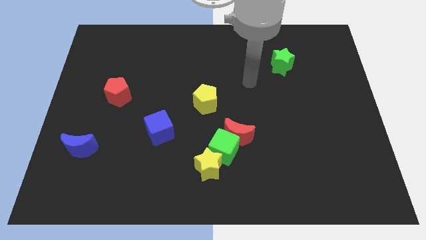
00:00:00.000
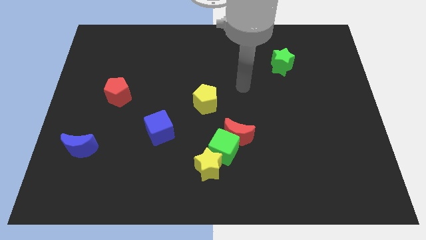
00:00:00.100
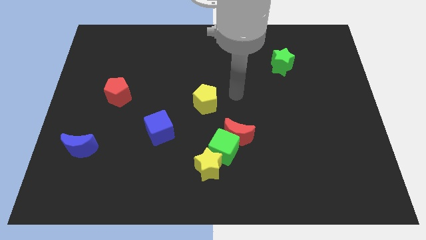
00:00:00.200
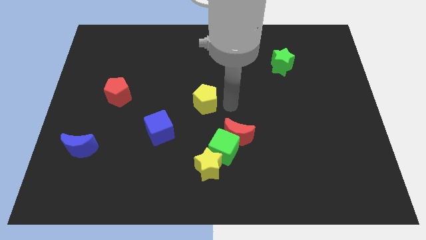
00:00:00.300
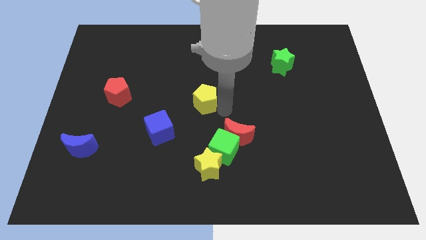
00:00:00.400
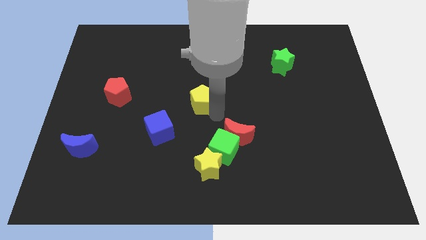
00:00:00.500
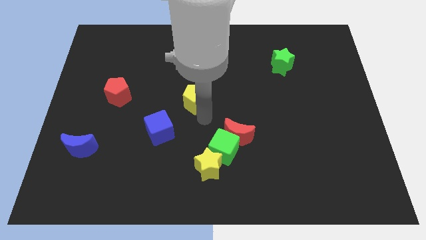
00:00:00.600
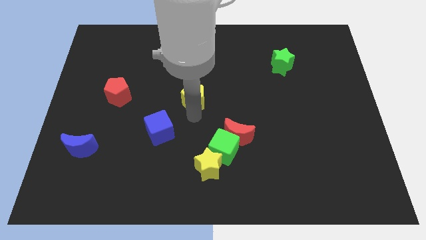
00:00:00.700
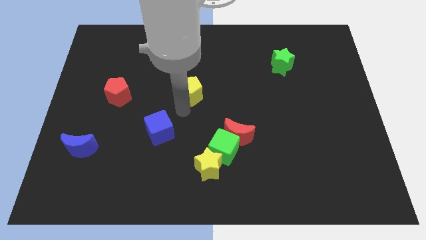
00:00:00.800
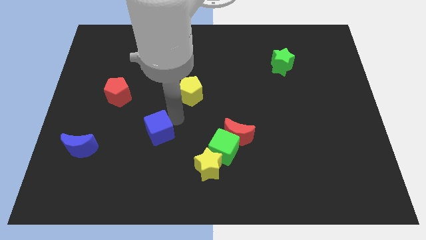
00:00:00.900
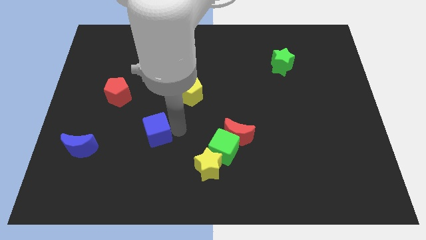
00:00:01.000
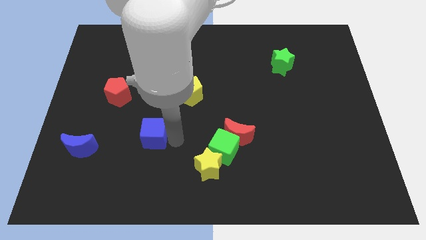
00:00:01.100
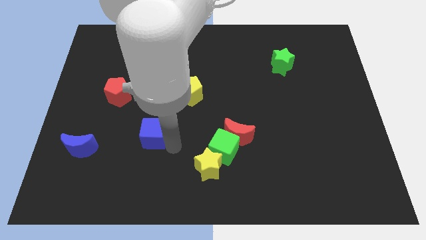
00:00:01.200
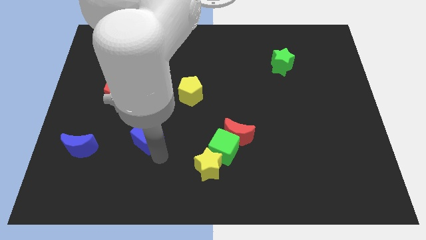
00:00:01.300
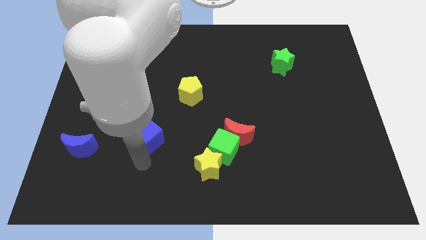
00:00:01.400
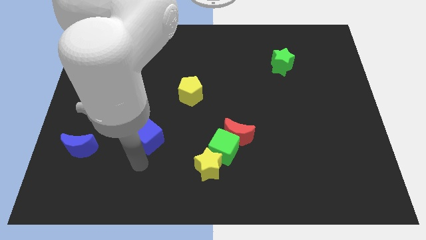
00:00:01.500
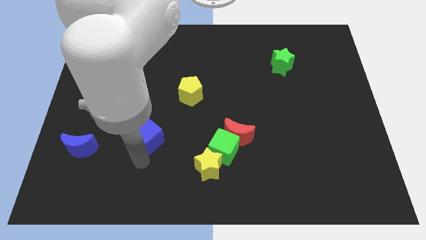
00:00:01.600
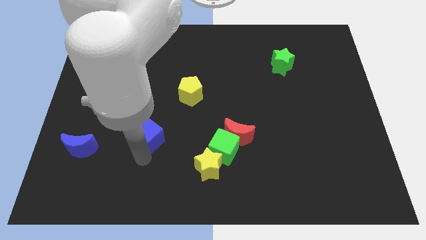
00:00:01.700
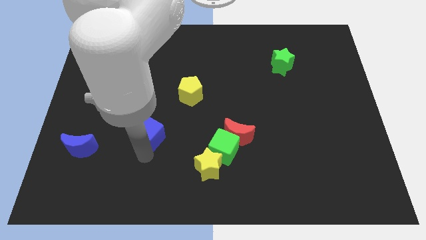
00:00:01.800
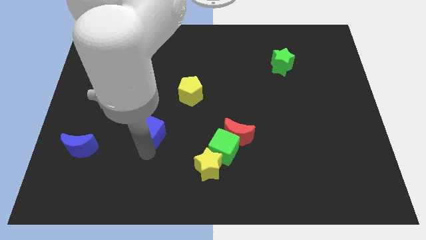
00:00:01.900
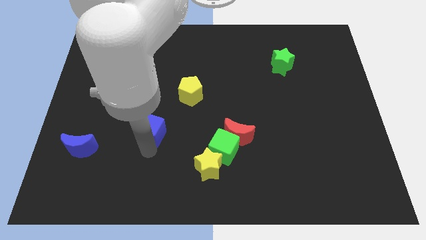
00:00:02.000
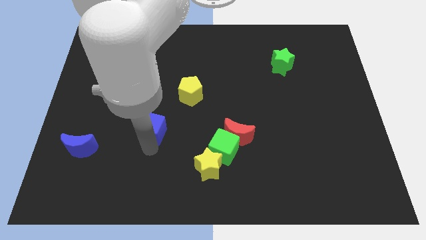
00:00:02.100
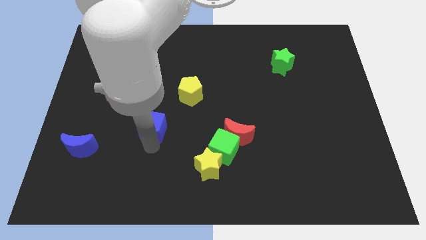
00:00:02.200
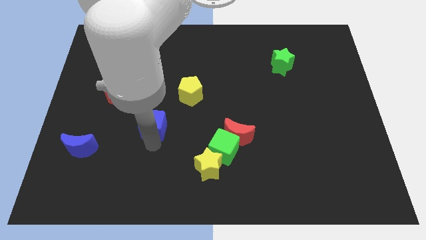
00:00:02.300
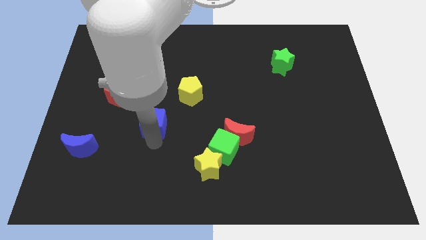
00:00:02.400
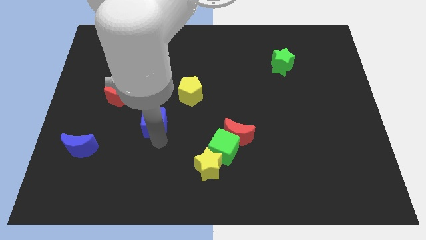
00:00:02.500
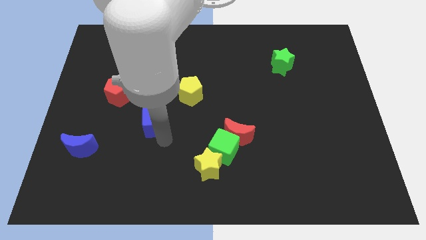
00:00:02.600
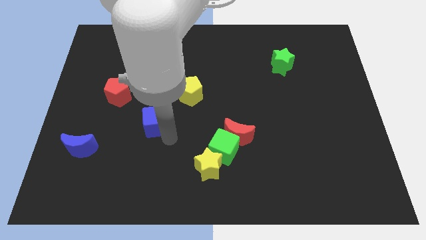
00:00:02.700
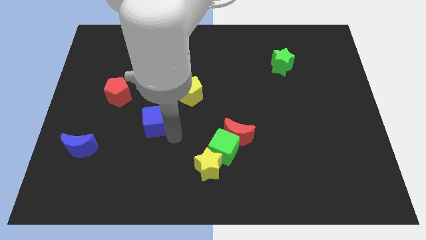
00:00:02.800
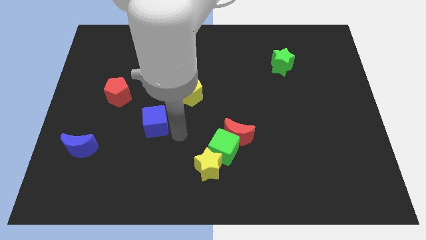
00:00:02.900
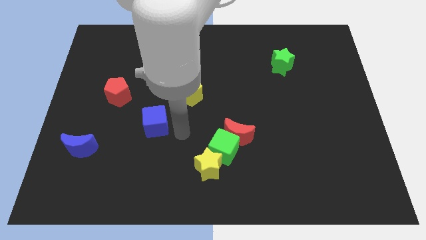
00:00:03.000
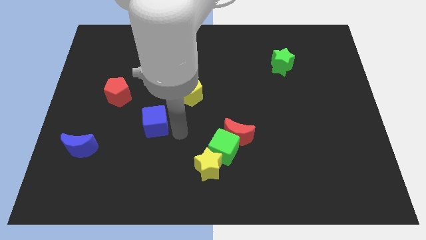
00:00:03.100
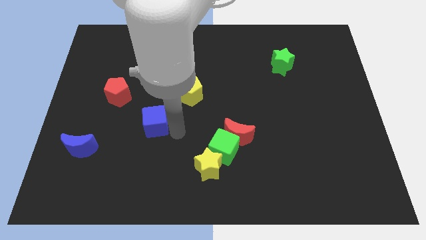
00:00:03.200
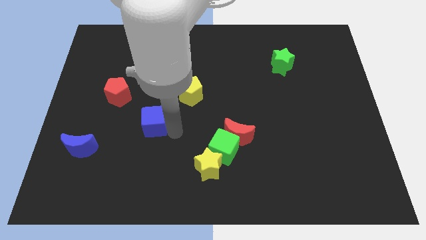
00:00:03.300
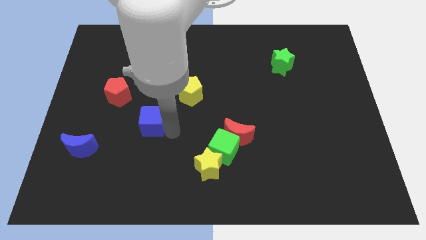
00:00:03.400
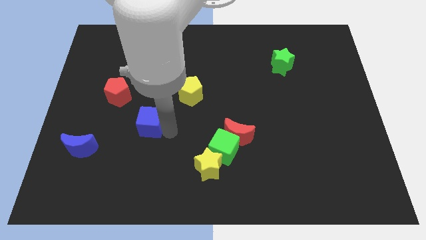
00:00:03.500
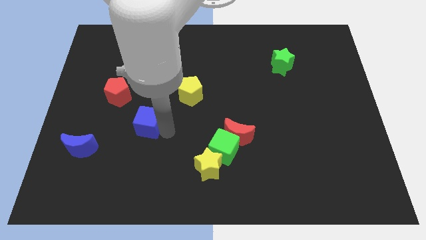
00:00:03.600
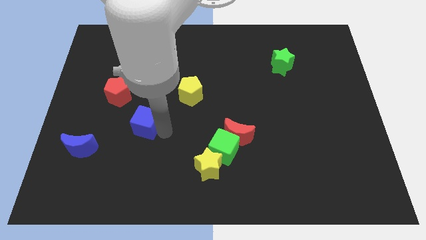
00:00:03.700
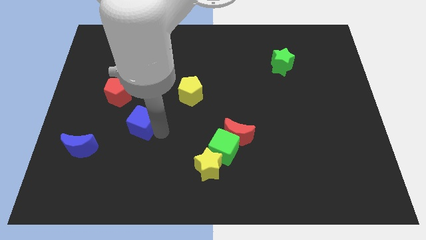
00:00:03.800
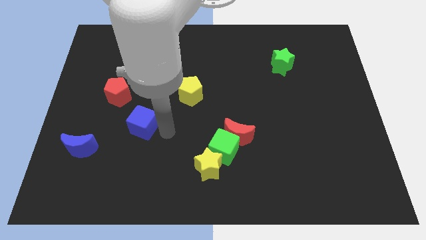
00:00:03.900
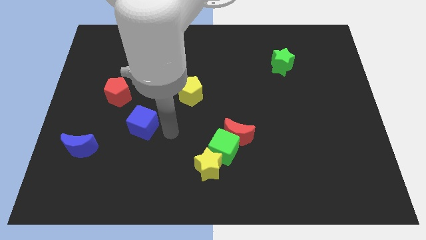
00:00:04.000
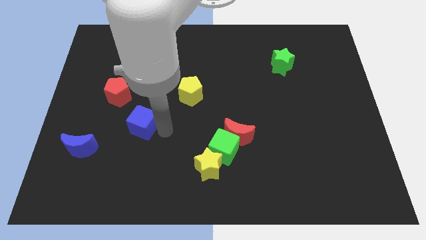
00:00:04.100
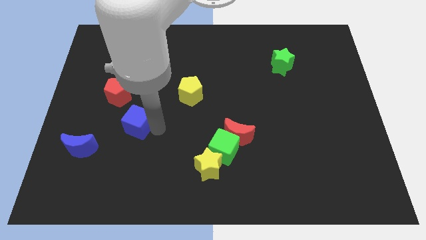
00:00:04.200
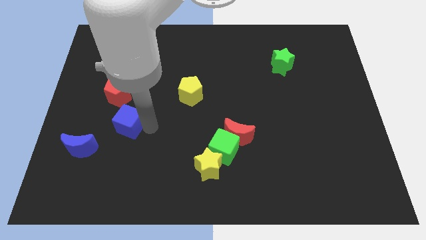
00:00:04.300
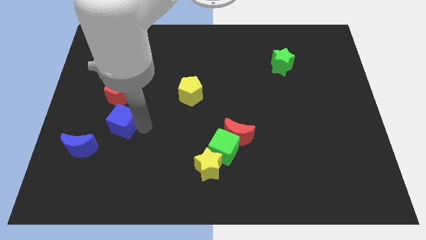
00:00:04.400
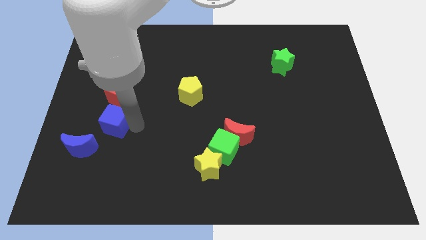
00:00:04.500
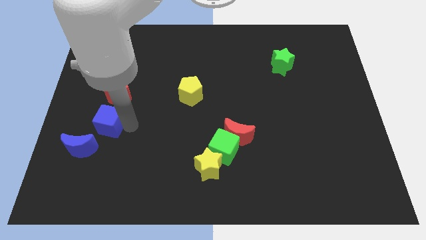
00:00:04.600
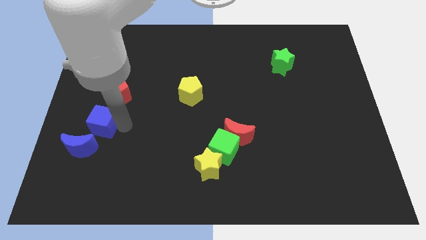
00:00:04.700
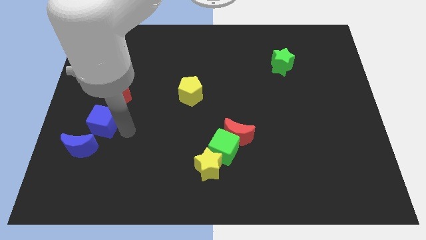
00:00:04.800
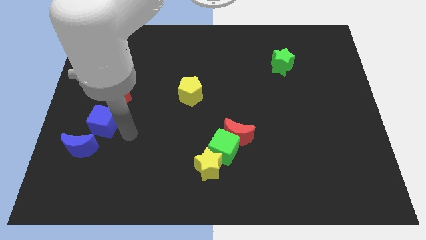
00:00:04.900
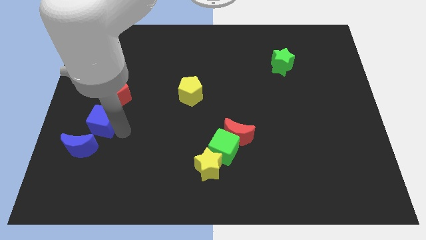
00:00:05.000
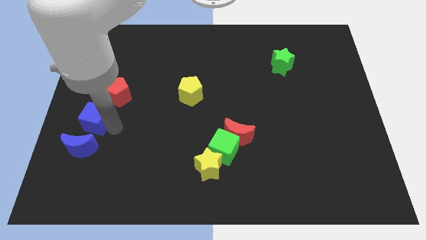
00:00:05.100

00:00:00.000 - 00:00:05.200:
put the blue cube to the left side of the board

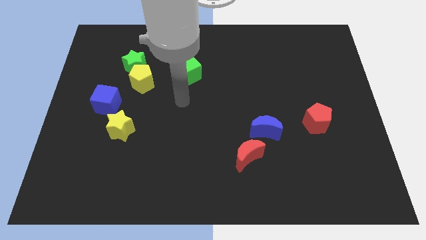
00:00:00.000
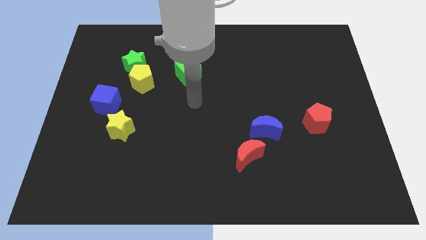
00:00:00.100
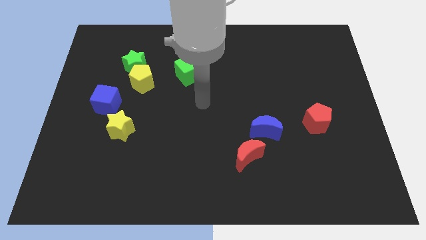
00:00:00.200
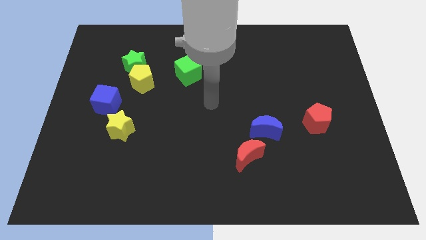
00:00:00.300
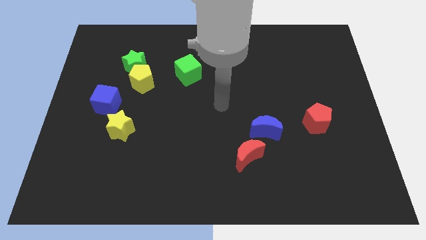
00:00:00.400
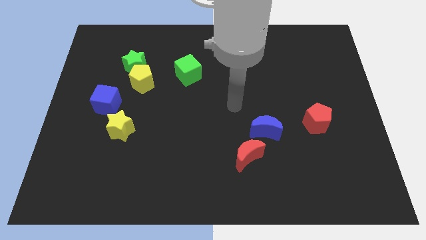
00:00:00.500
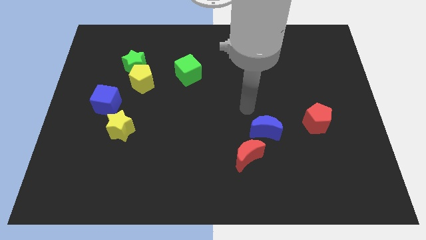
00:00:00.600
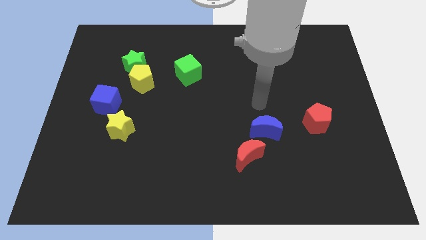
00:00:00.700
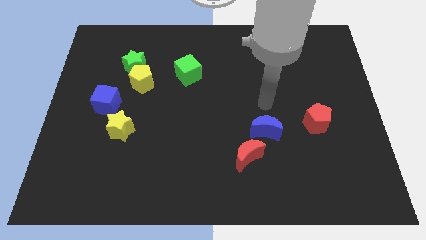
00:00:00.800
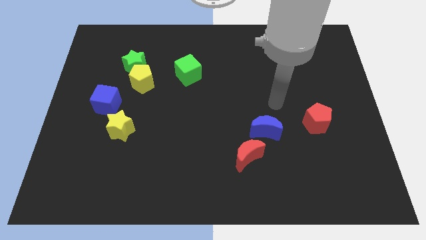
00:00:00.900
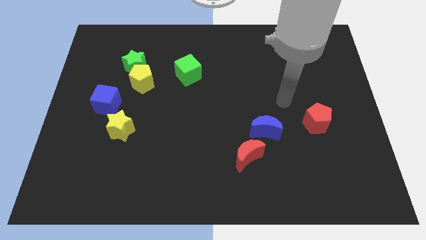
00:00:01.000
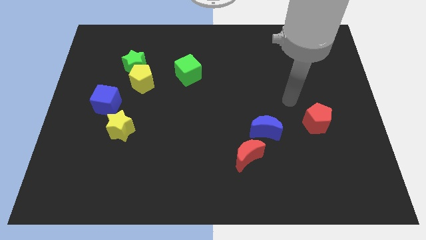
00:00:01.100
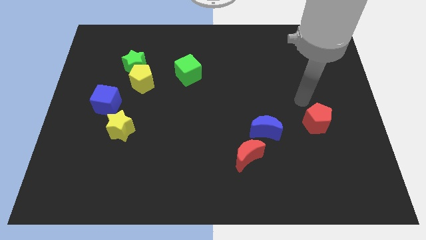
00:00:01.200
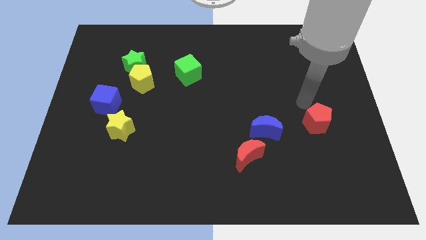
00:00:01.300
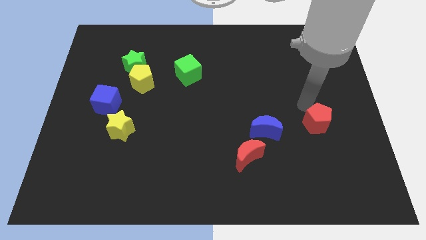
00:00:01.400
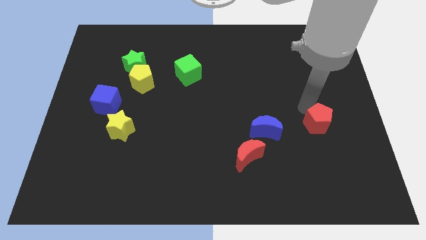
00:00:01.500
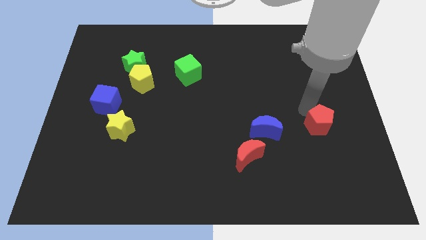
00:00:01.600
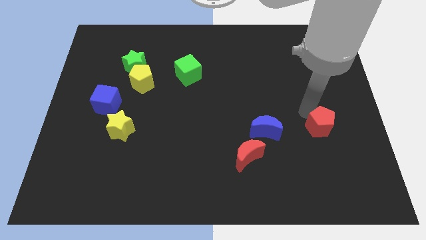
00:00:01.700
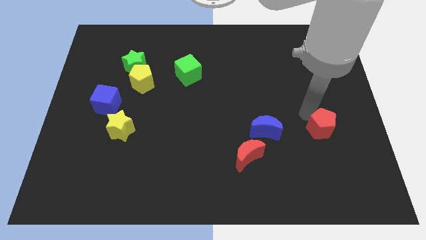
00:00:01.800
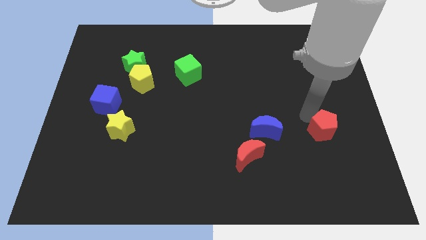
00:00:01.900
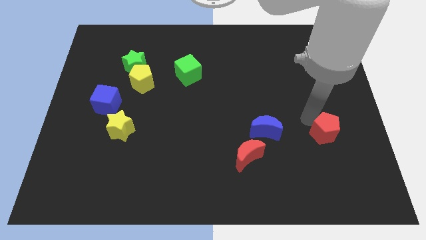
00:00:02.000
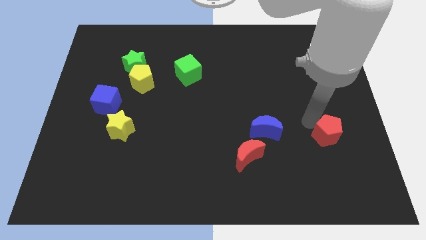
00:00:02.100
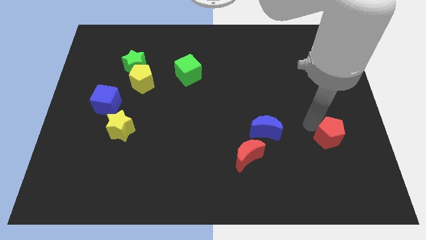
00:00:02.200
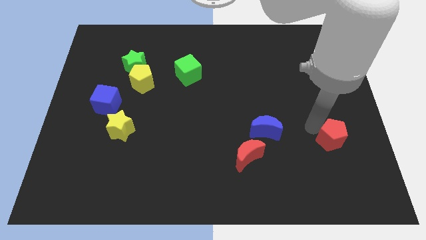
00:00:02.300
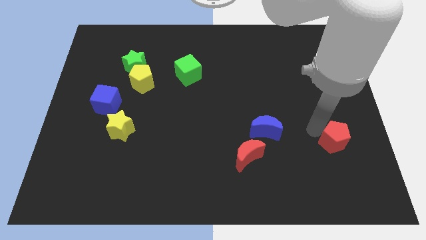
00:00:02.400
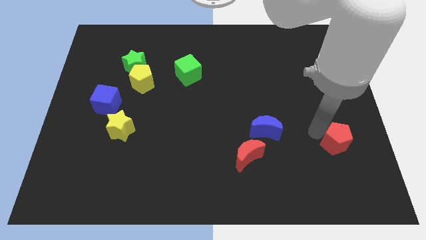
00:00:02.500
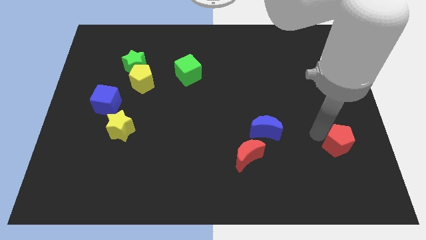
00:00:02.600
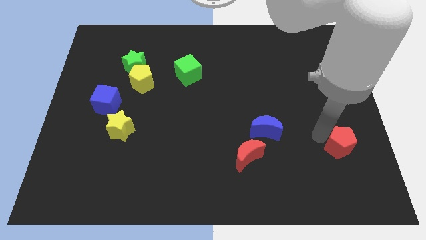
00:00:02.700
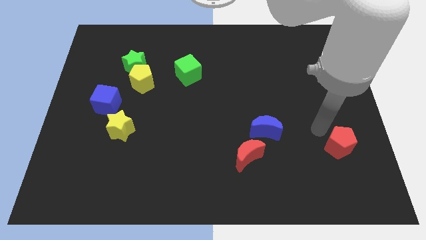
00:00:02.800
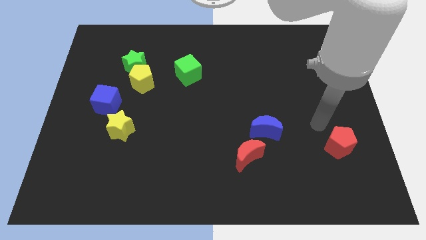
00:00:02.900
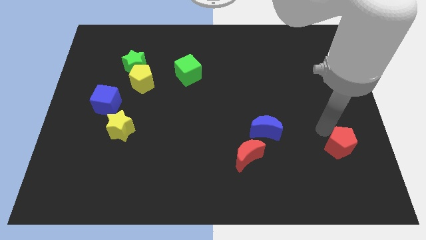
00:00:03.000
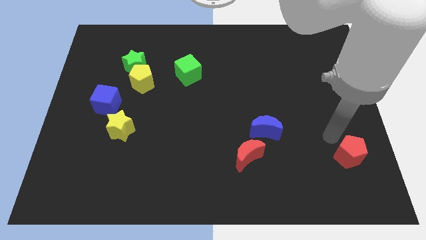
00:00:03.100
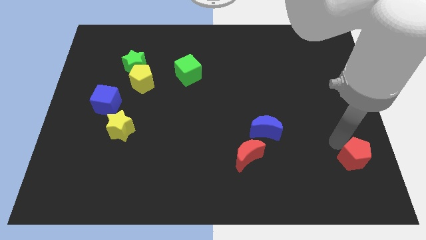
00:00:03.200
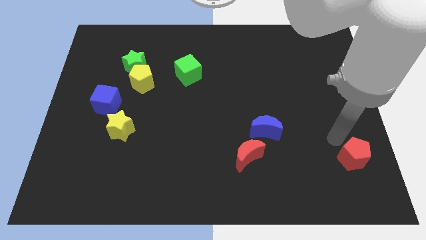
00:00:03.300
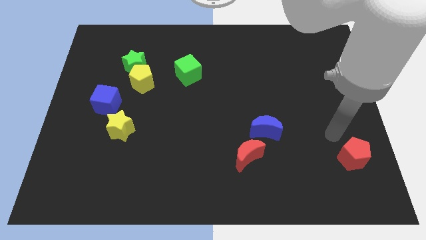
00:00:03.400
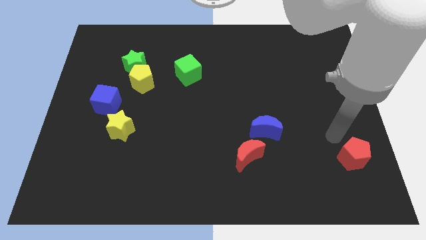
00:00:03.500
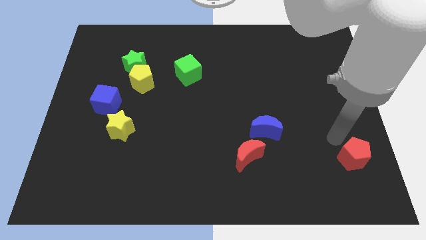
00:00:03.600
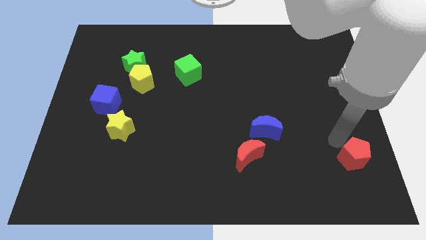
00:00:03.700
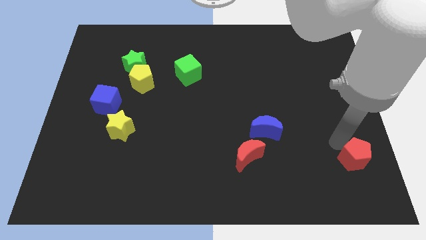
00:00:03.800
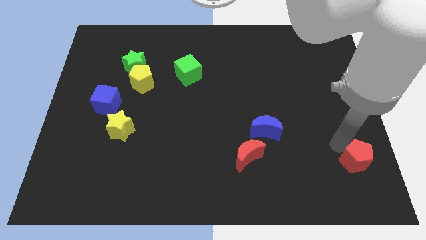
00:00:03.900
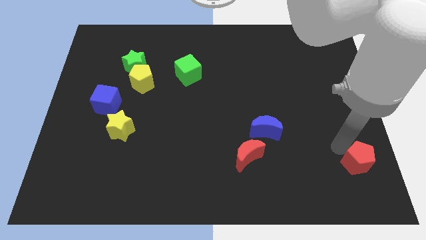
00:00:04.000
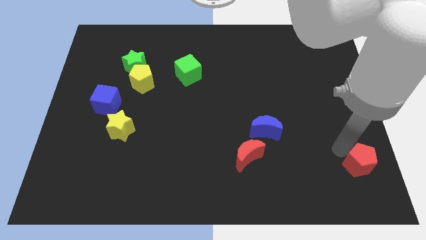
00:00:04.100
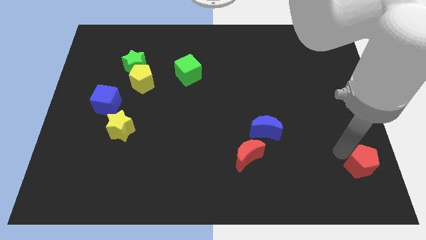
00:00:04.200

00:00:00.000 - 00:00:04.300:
slide the red pentagon to the bottom right of the board
